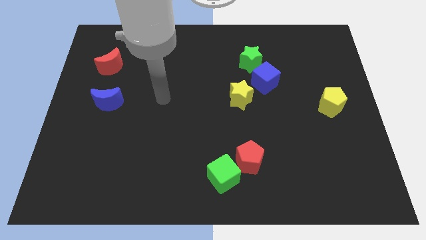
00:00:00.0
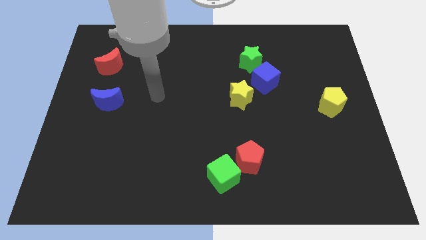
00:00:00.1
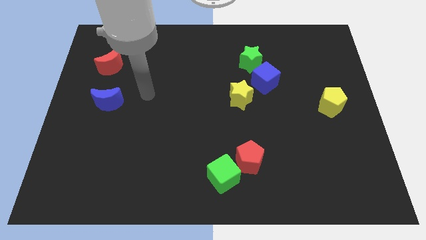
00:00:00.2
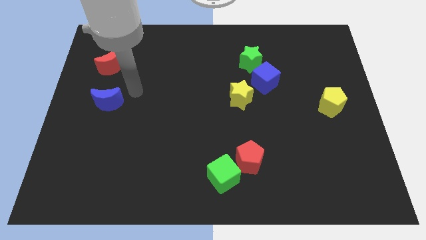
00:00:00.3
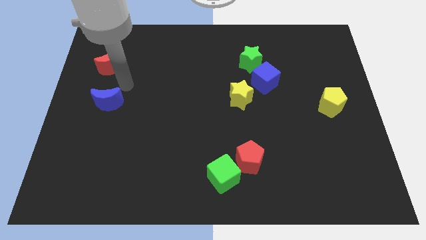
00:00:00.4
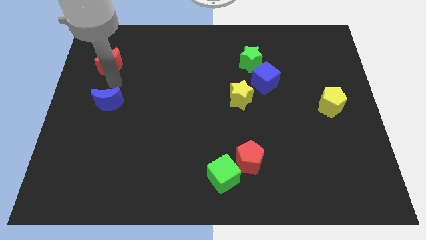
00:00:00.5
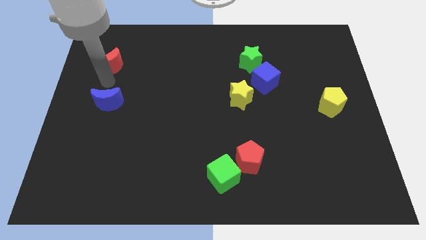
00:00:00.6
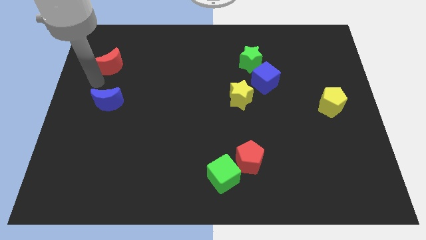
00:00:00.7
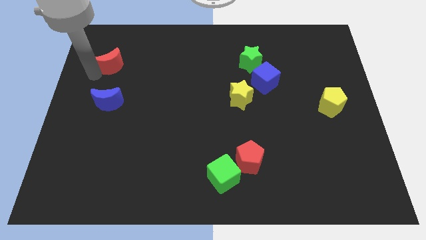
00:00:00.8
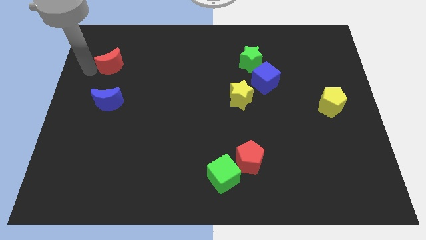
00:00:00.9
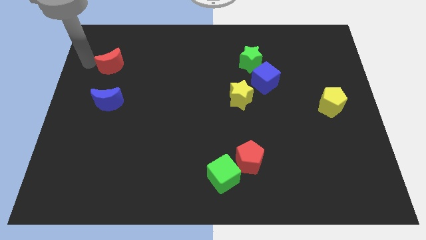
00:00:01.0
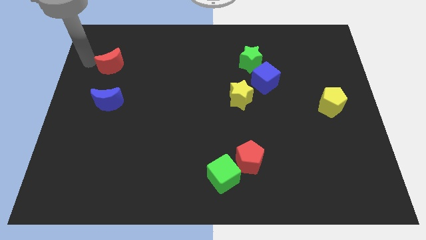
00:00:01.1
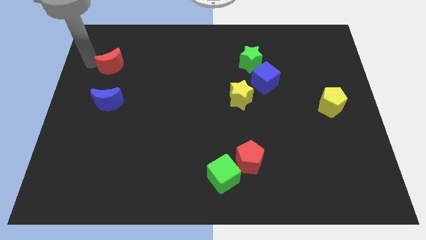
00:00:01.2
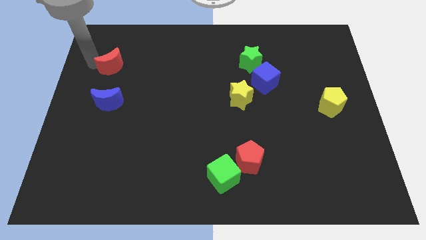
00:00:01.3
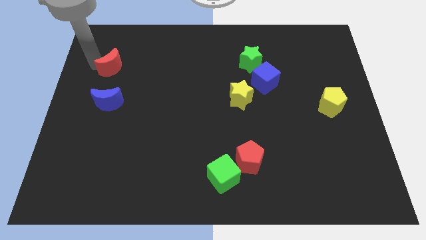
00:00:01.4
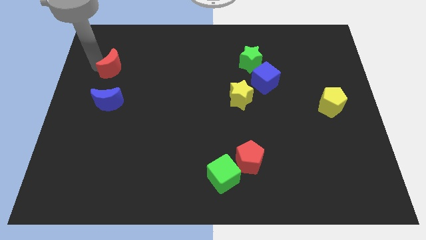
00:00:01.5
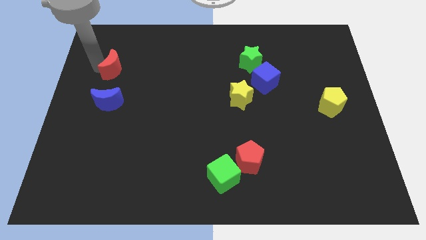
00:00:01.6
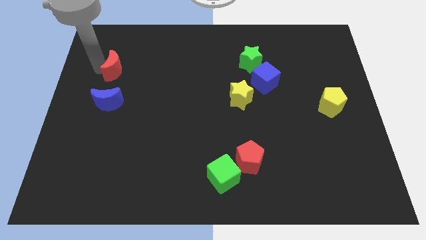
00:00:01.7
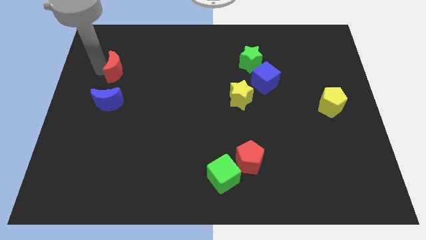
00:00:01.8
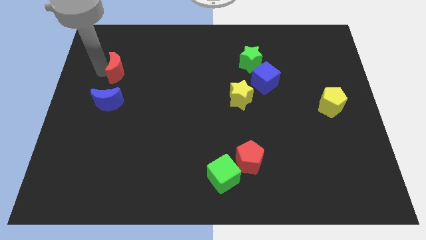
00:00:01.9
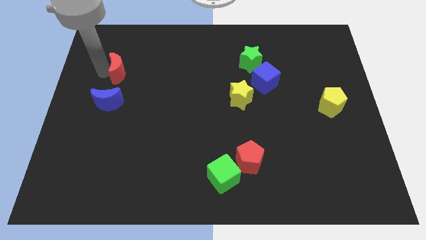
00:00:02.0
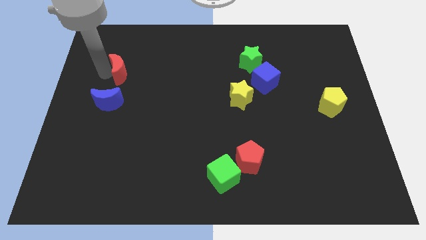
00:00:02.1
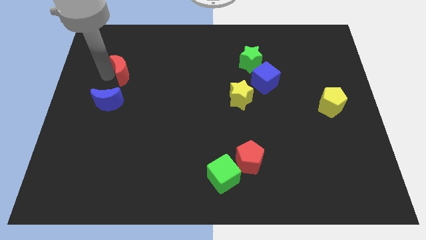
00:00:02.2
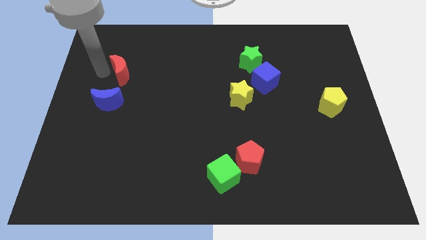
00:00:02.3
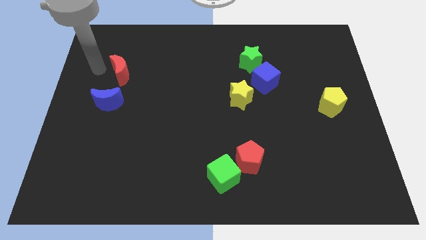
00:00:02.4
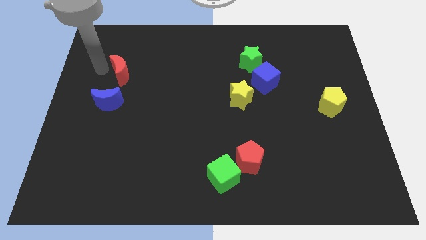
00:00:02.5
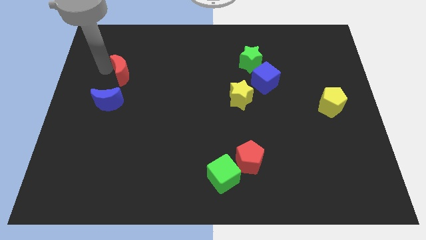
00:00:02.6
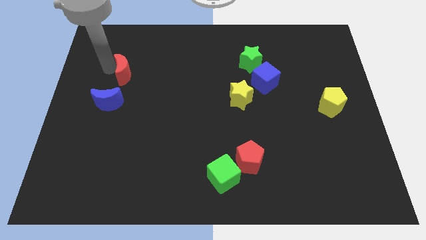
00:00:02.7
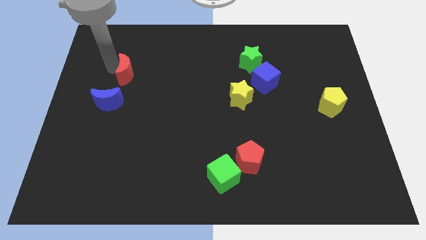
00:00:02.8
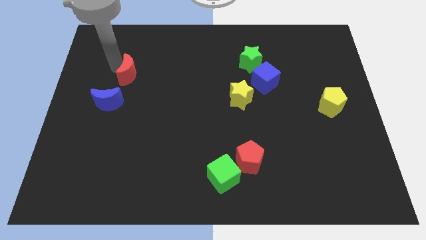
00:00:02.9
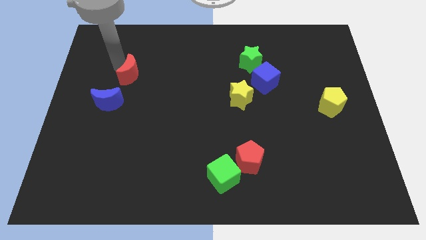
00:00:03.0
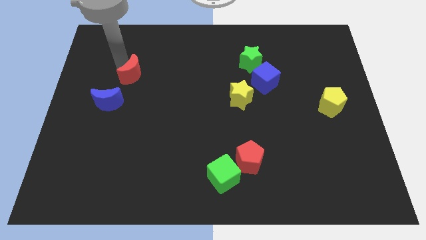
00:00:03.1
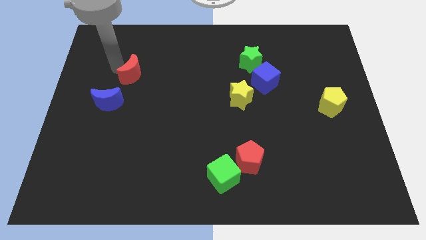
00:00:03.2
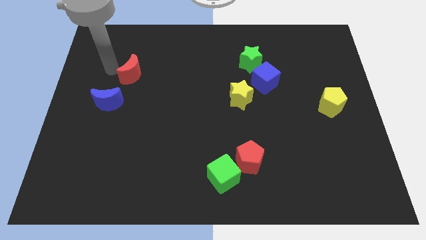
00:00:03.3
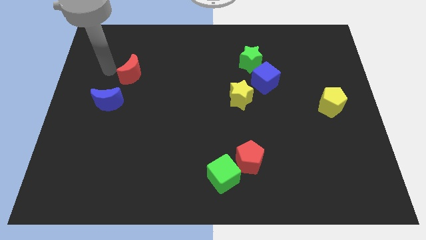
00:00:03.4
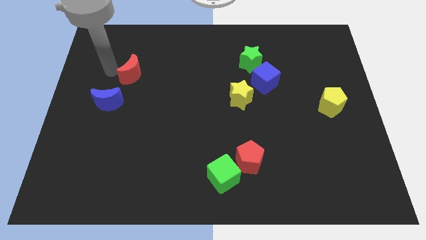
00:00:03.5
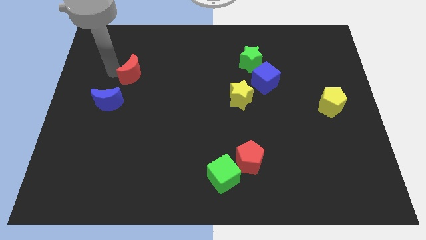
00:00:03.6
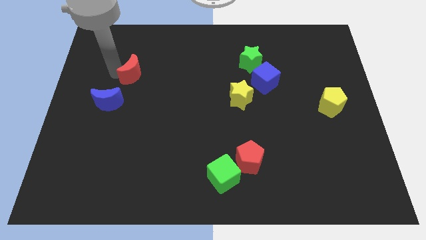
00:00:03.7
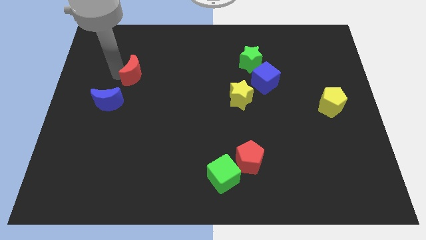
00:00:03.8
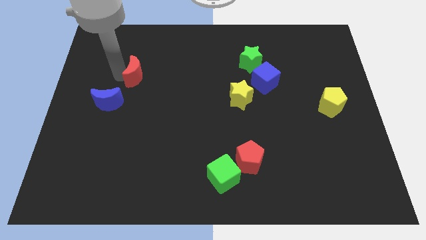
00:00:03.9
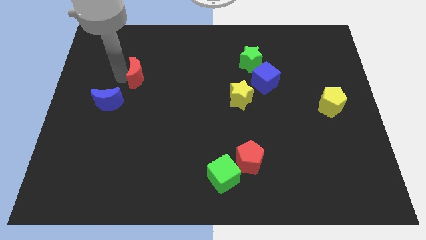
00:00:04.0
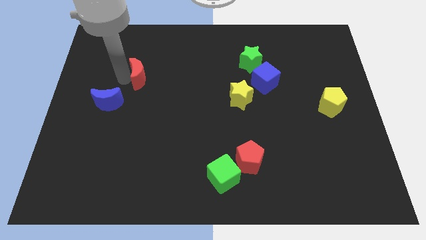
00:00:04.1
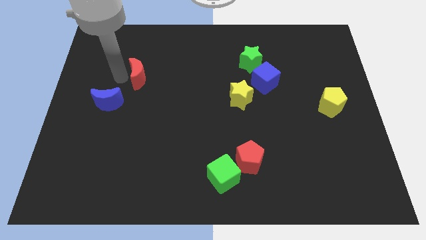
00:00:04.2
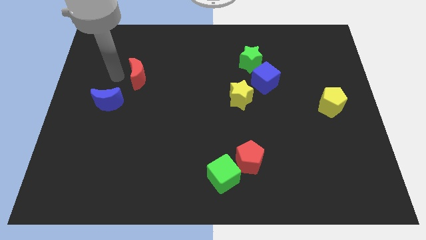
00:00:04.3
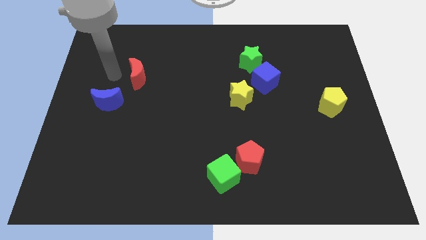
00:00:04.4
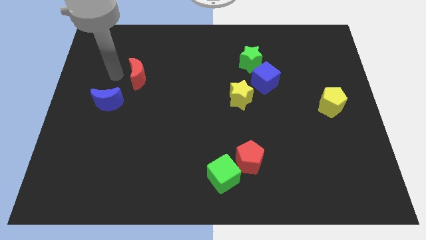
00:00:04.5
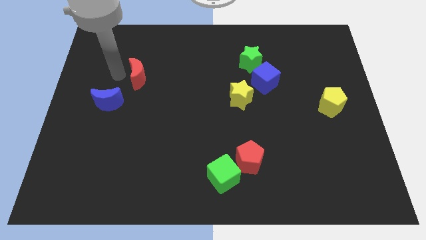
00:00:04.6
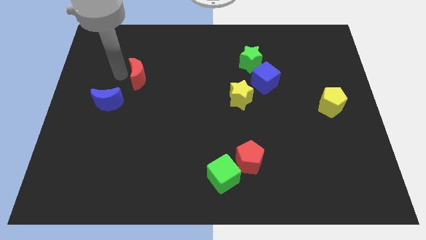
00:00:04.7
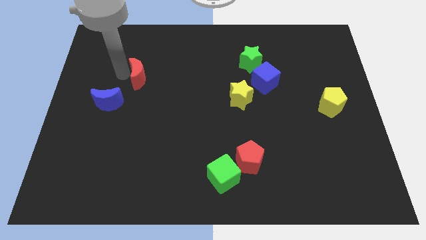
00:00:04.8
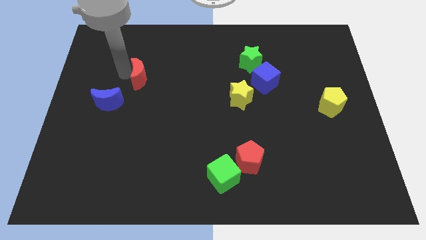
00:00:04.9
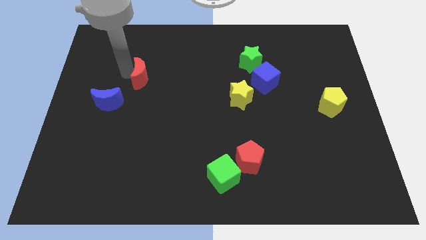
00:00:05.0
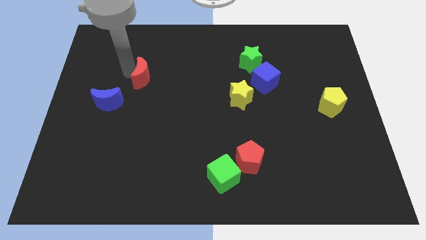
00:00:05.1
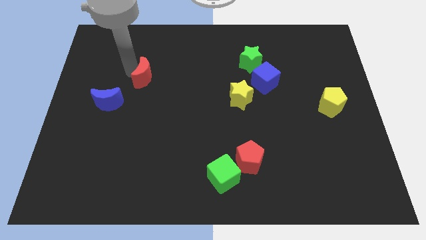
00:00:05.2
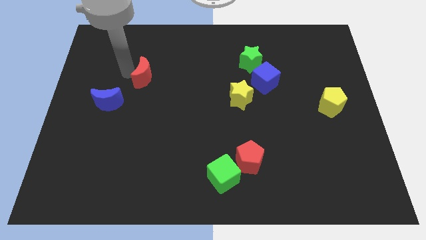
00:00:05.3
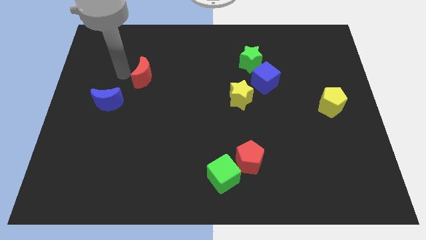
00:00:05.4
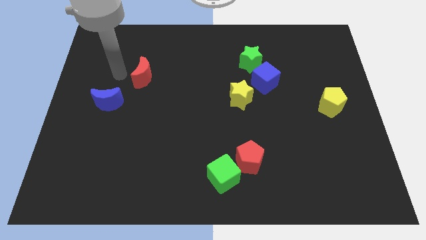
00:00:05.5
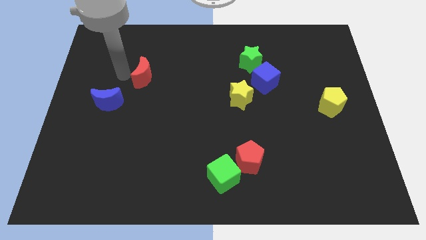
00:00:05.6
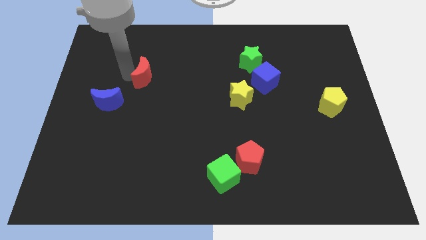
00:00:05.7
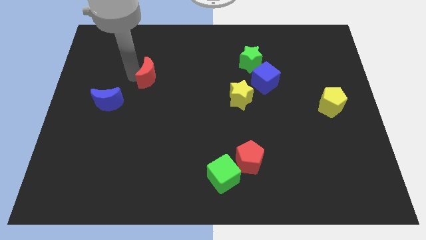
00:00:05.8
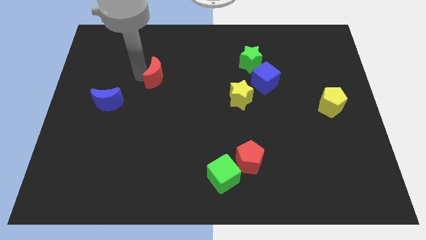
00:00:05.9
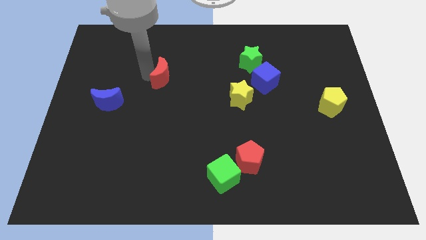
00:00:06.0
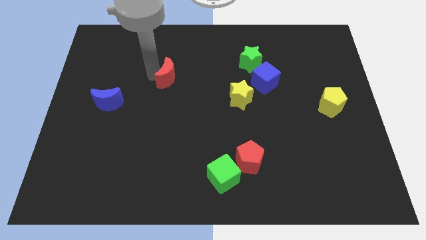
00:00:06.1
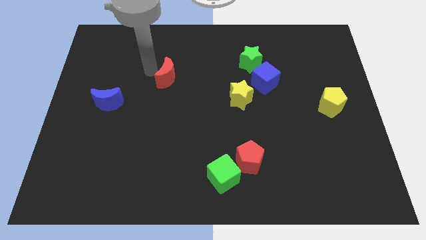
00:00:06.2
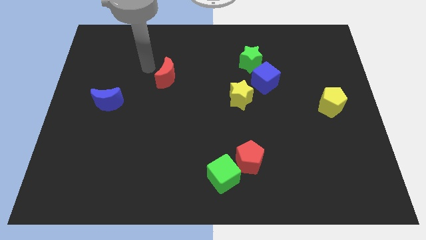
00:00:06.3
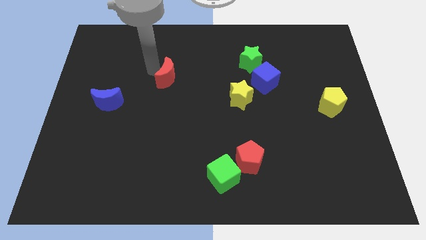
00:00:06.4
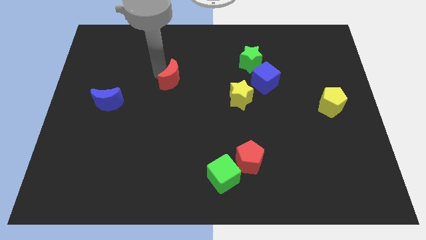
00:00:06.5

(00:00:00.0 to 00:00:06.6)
move the red moon to the center of the board
